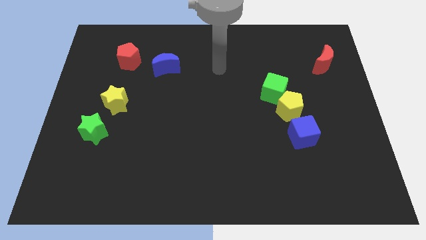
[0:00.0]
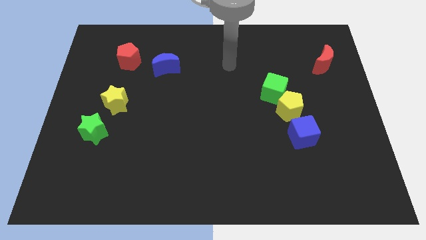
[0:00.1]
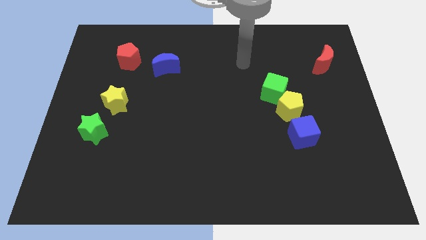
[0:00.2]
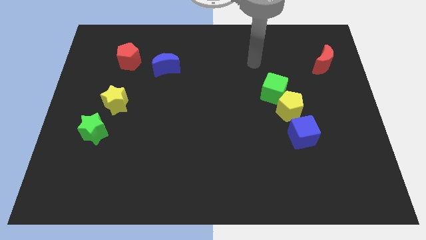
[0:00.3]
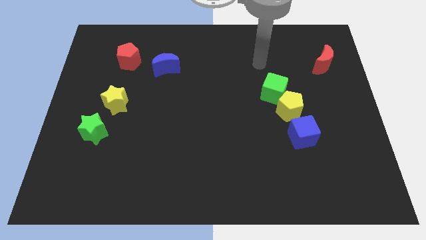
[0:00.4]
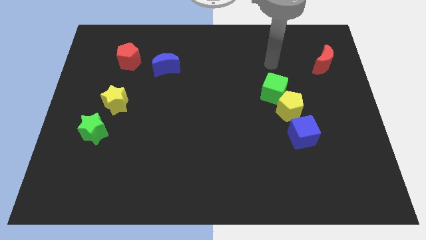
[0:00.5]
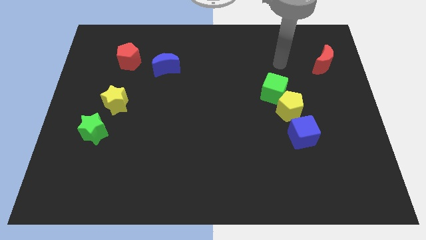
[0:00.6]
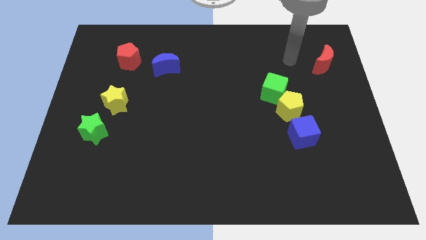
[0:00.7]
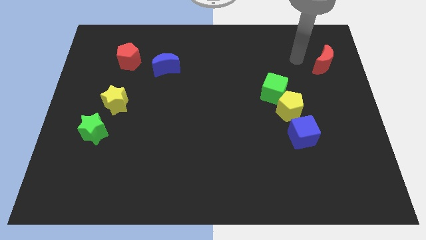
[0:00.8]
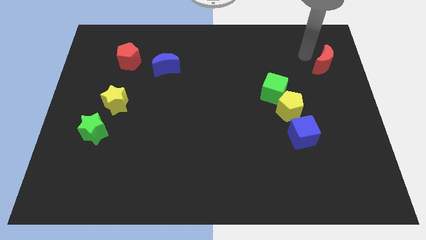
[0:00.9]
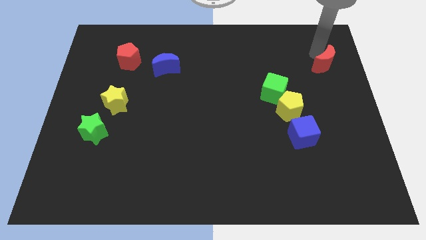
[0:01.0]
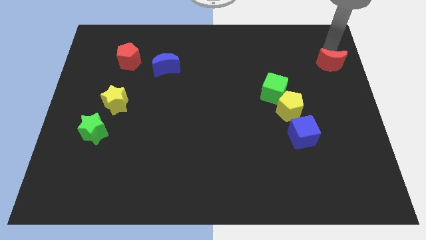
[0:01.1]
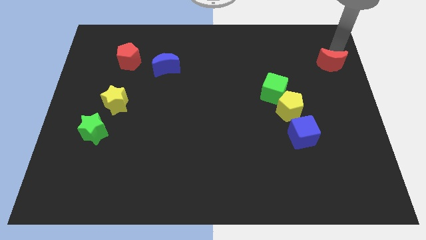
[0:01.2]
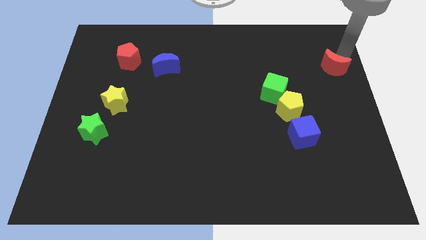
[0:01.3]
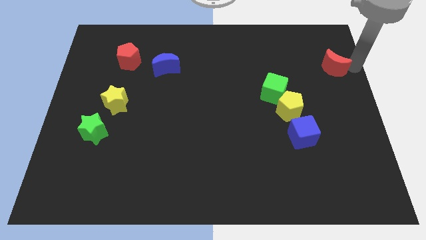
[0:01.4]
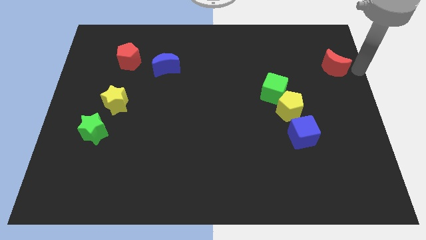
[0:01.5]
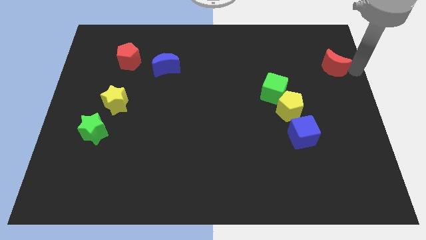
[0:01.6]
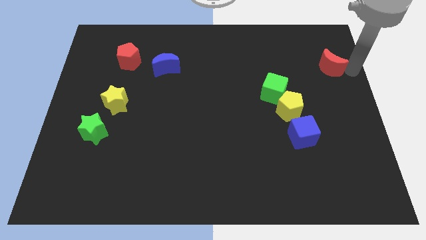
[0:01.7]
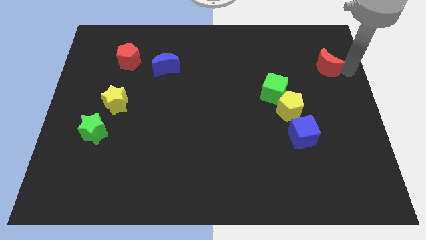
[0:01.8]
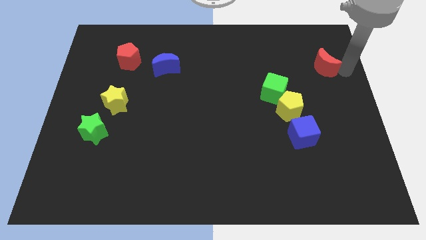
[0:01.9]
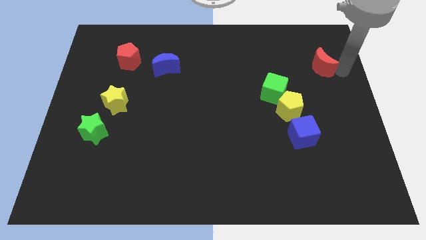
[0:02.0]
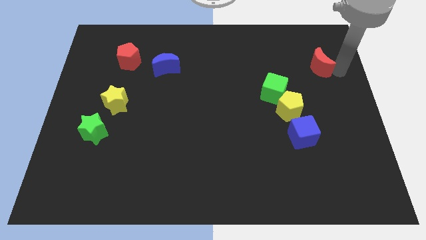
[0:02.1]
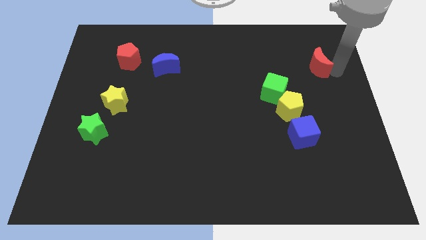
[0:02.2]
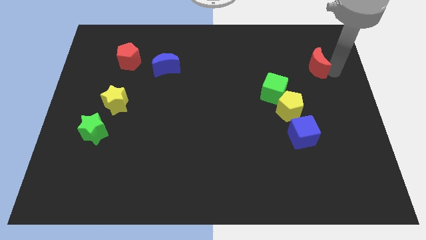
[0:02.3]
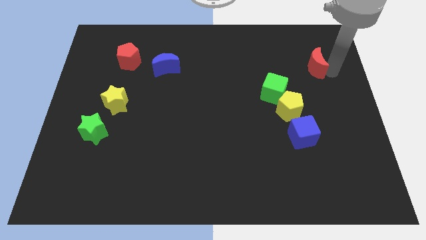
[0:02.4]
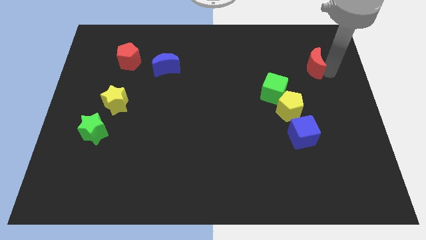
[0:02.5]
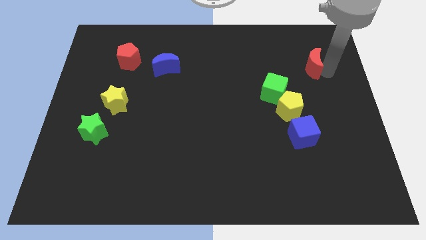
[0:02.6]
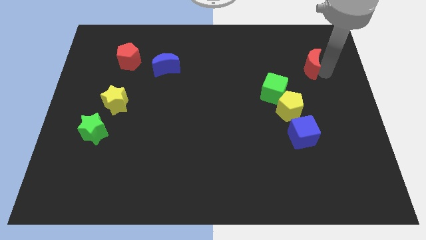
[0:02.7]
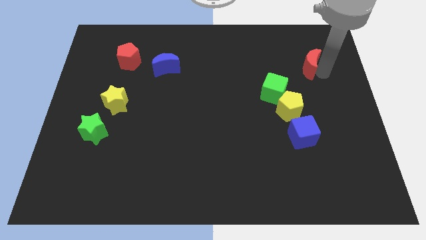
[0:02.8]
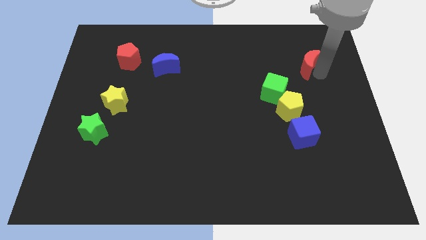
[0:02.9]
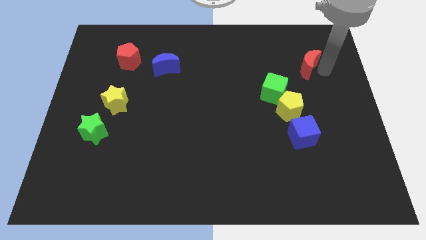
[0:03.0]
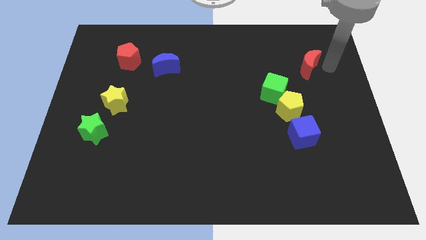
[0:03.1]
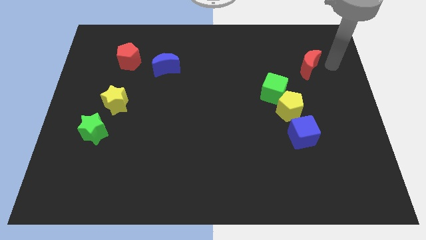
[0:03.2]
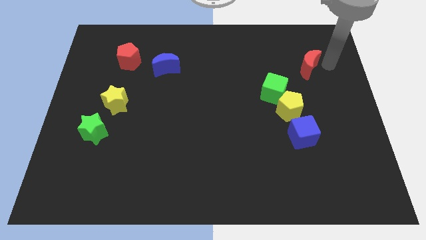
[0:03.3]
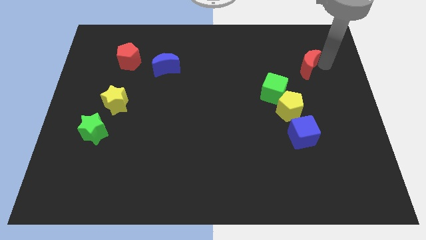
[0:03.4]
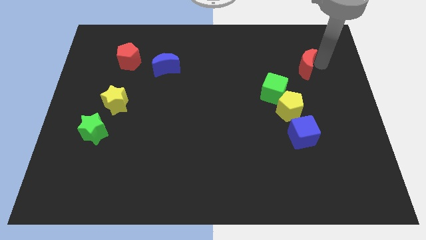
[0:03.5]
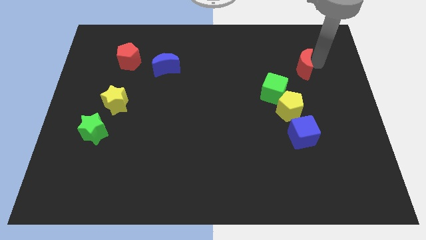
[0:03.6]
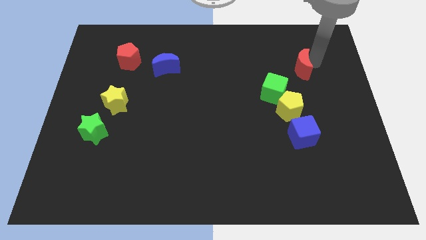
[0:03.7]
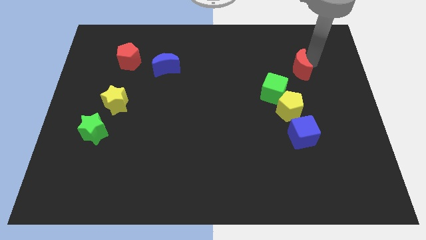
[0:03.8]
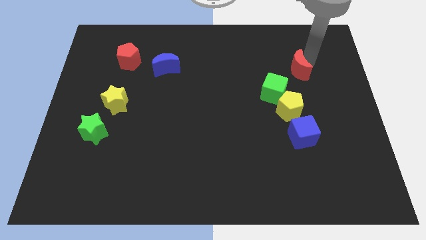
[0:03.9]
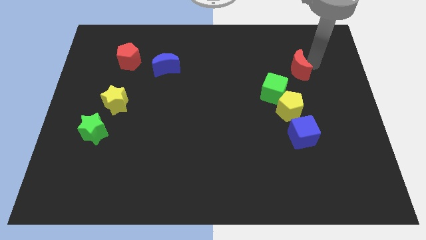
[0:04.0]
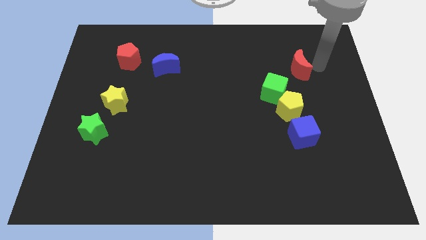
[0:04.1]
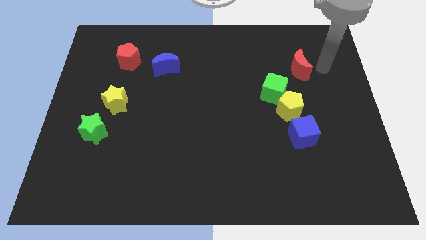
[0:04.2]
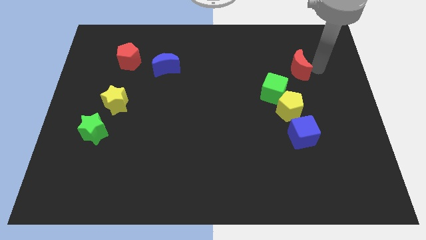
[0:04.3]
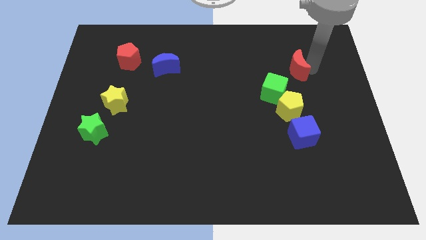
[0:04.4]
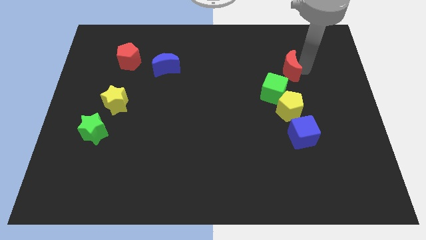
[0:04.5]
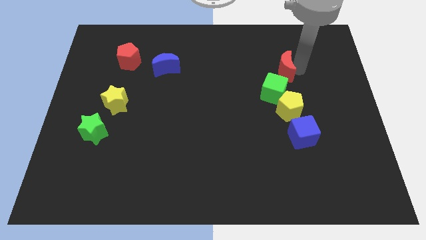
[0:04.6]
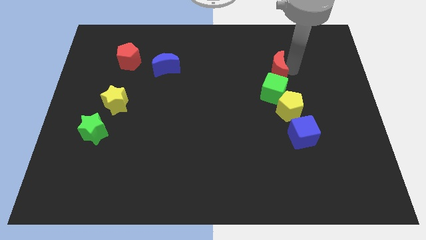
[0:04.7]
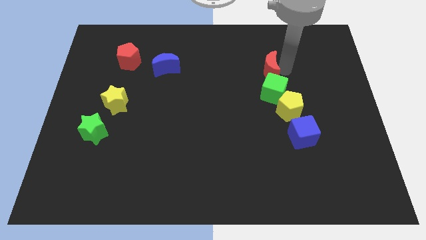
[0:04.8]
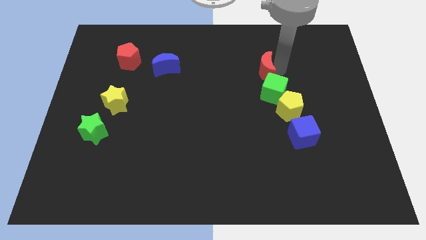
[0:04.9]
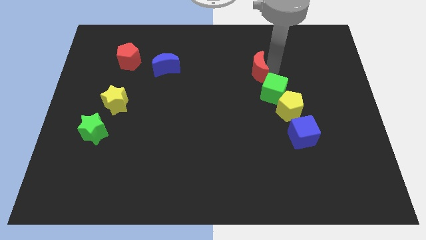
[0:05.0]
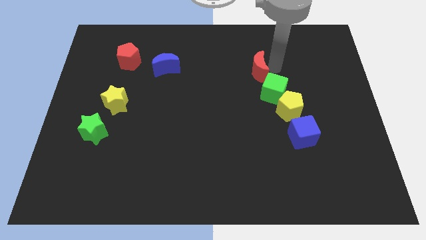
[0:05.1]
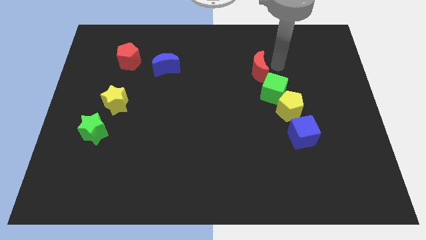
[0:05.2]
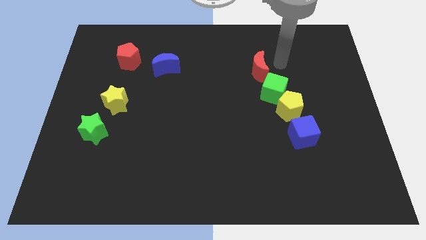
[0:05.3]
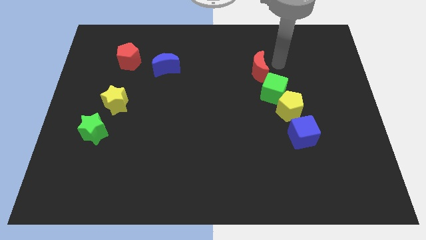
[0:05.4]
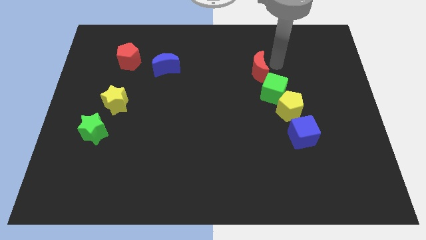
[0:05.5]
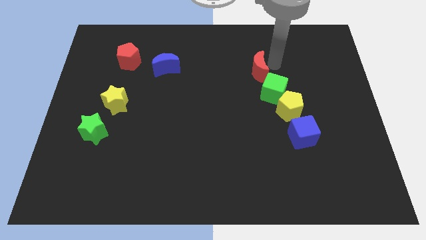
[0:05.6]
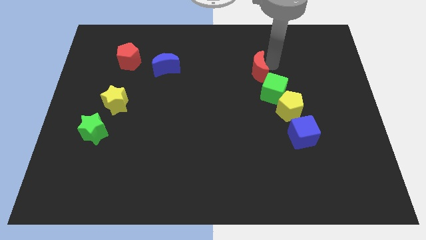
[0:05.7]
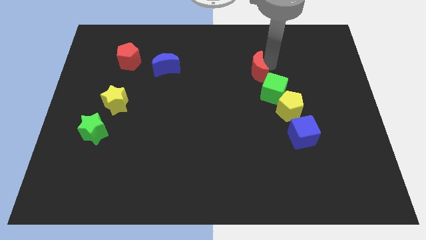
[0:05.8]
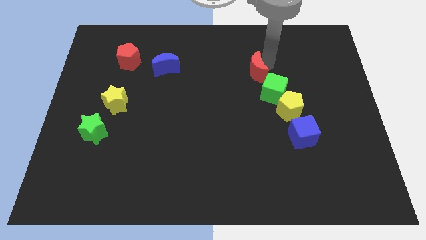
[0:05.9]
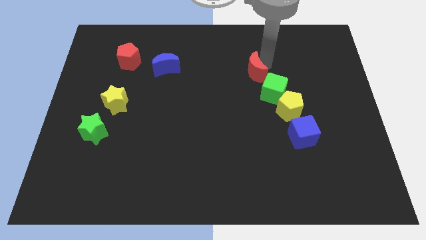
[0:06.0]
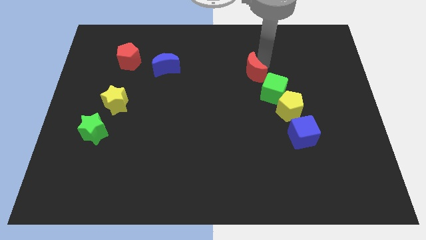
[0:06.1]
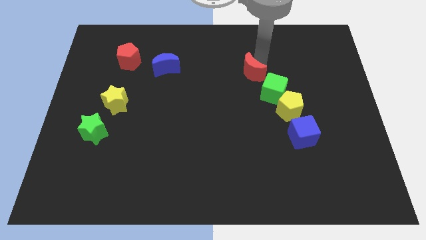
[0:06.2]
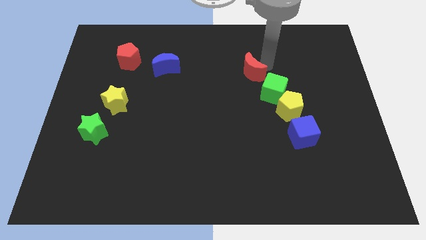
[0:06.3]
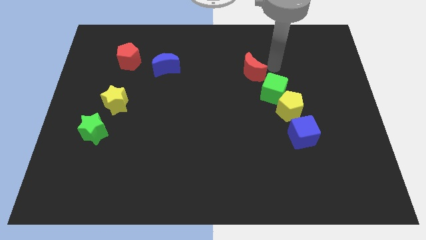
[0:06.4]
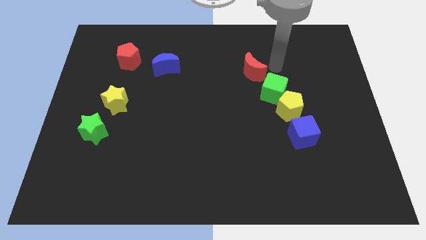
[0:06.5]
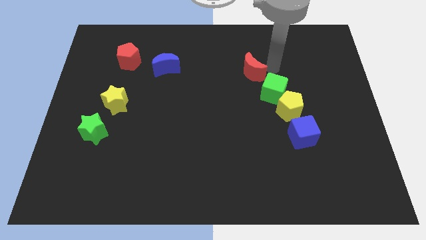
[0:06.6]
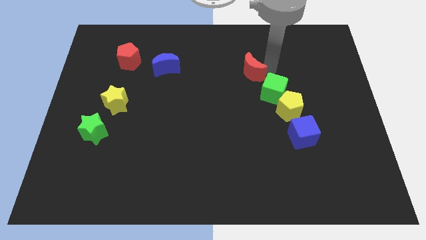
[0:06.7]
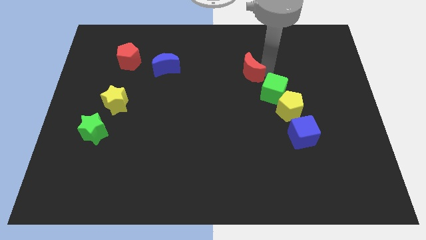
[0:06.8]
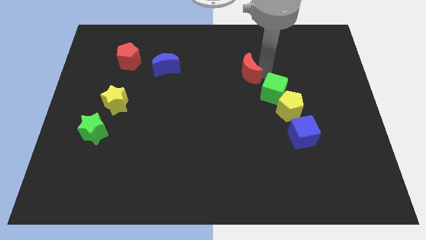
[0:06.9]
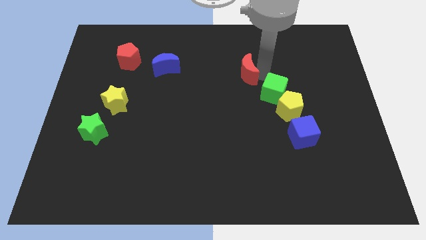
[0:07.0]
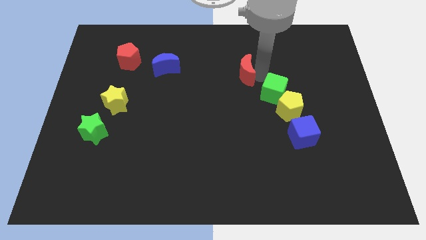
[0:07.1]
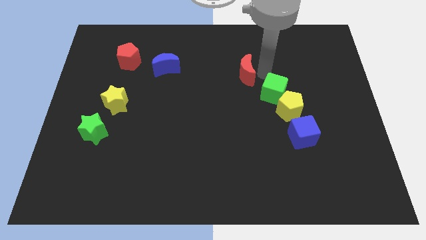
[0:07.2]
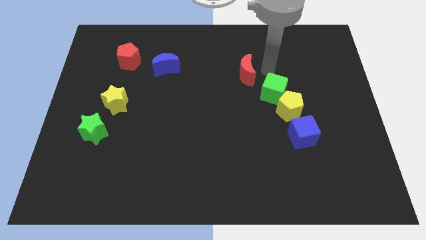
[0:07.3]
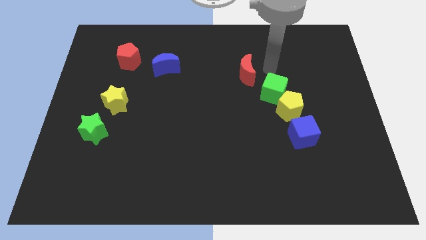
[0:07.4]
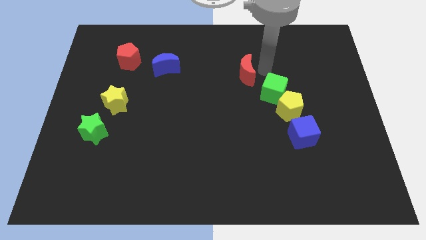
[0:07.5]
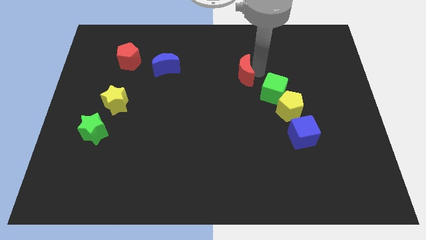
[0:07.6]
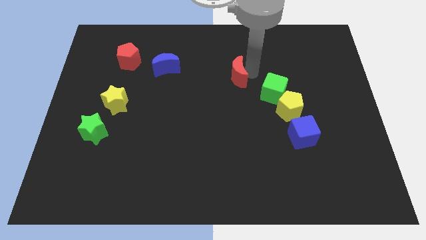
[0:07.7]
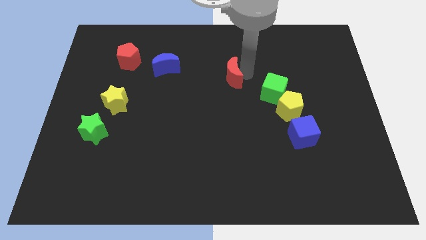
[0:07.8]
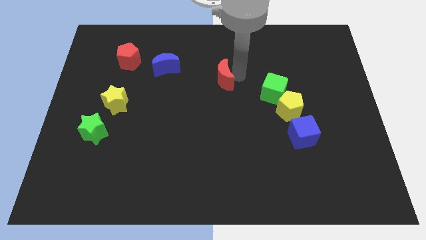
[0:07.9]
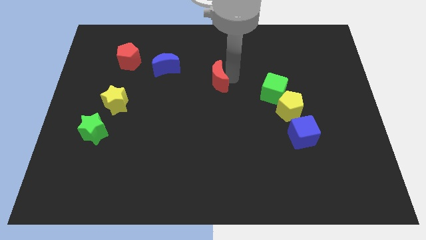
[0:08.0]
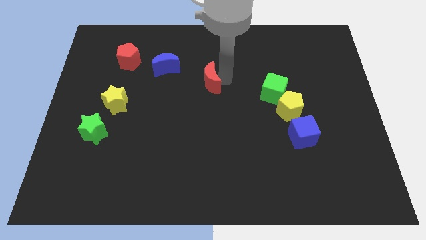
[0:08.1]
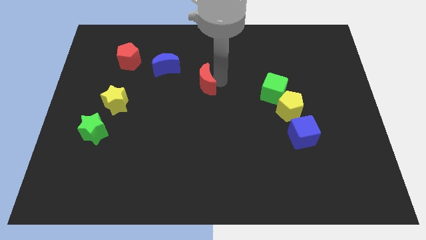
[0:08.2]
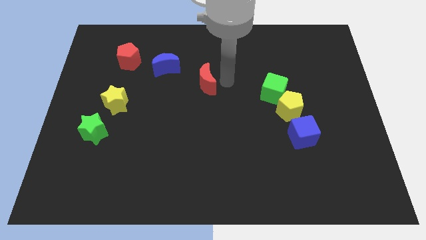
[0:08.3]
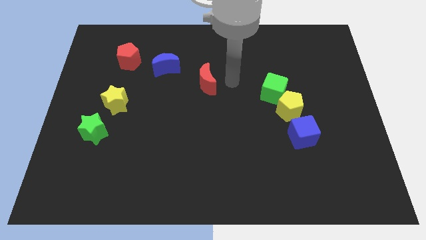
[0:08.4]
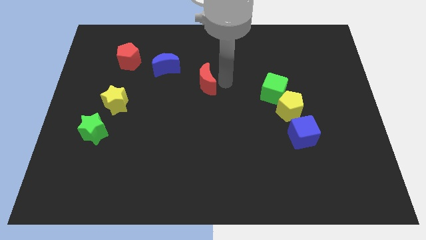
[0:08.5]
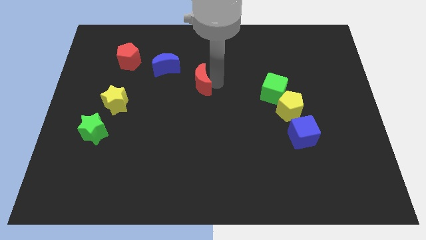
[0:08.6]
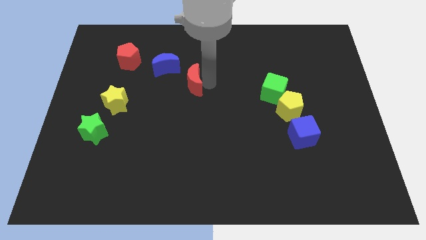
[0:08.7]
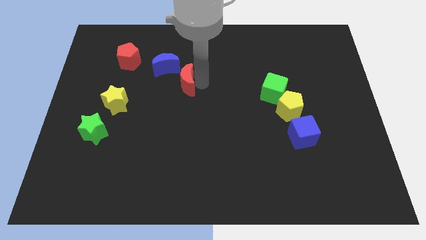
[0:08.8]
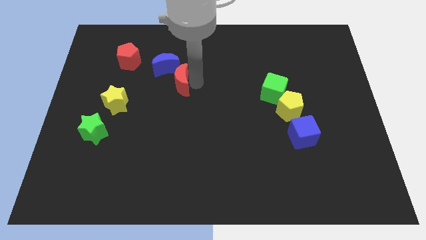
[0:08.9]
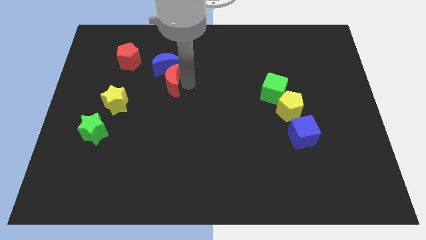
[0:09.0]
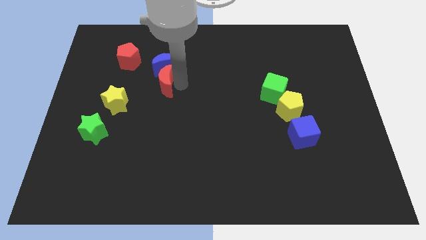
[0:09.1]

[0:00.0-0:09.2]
put the red moon diagonally down and to the left of the blue moon
